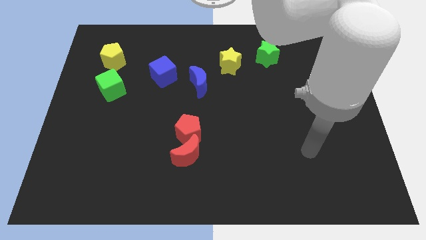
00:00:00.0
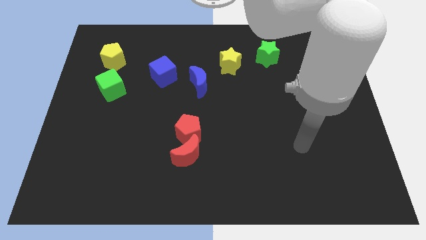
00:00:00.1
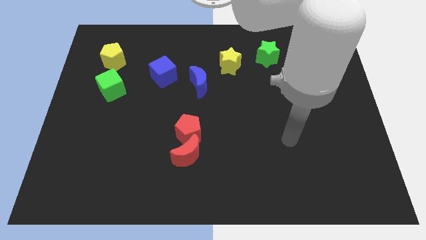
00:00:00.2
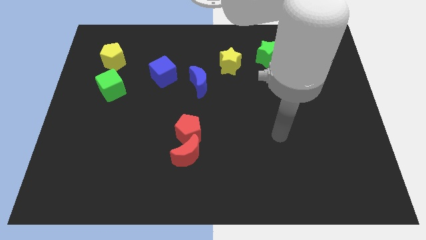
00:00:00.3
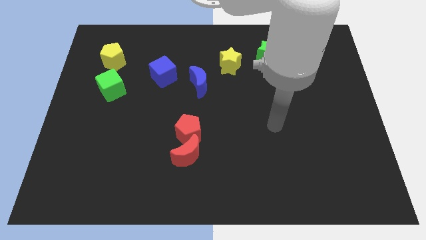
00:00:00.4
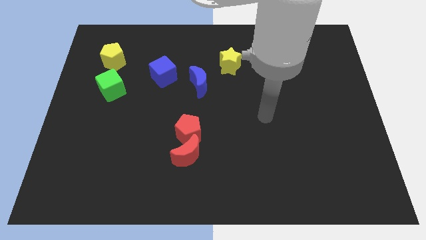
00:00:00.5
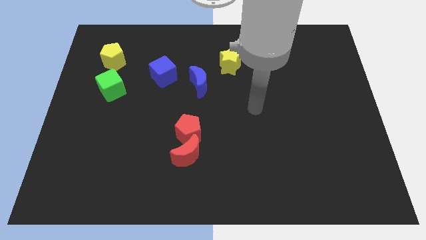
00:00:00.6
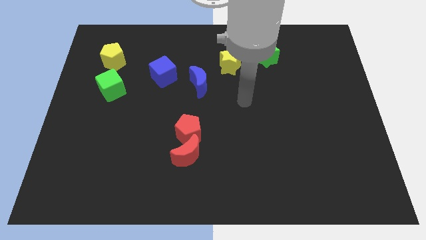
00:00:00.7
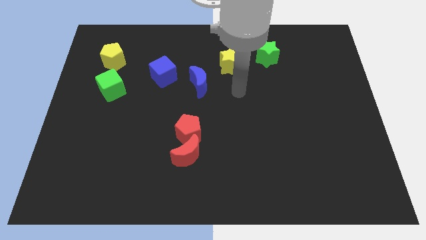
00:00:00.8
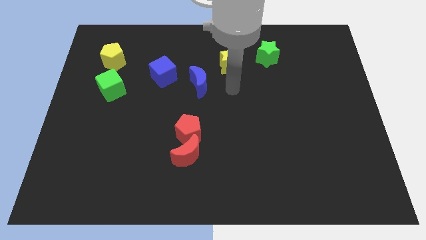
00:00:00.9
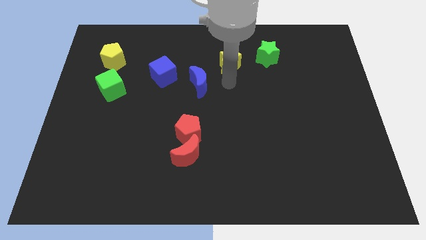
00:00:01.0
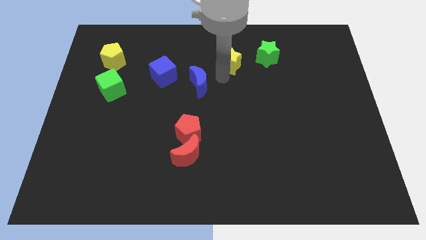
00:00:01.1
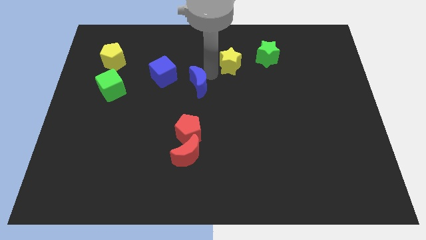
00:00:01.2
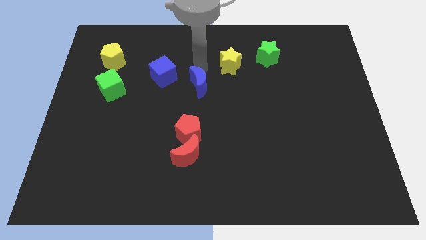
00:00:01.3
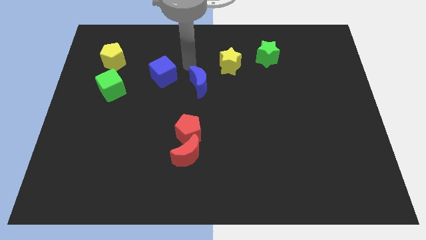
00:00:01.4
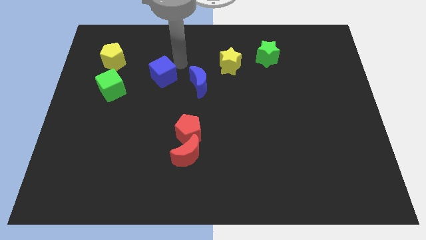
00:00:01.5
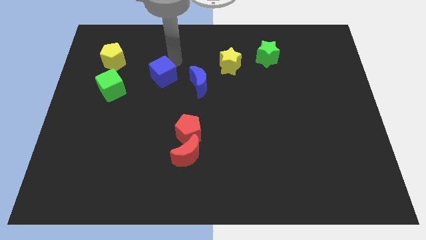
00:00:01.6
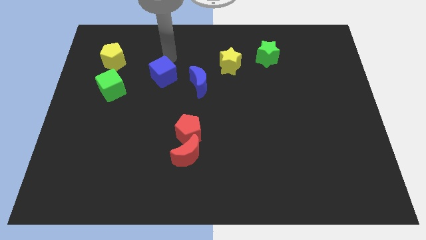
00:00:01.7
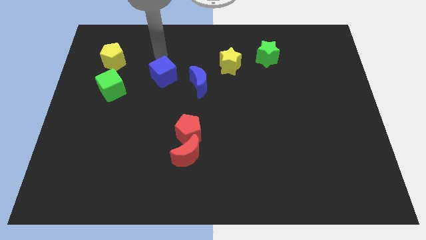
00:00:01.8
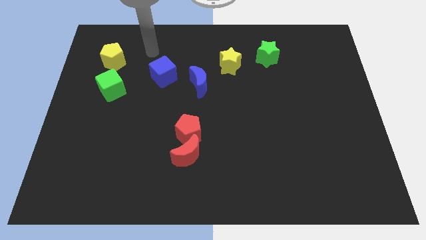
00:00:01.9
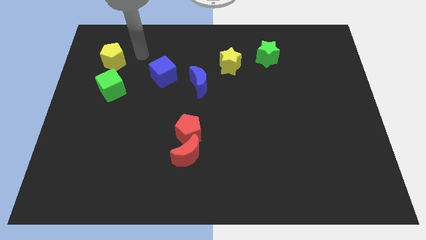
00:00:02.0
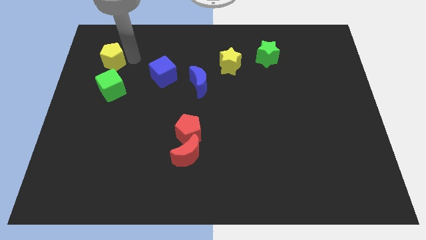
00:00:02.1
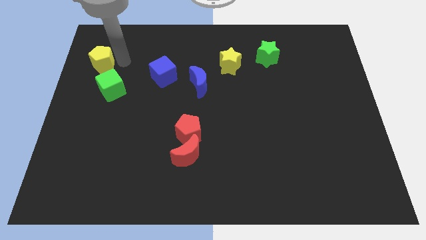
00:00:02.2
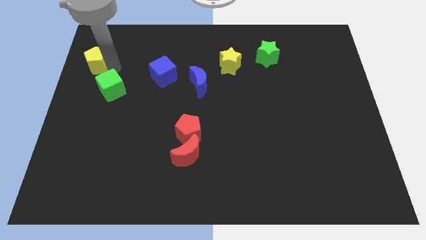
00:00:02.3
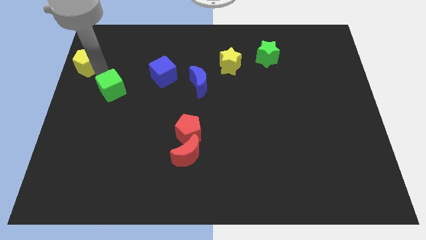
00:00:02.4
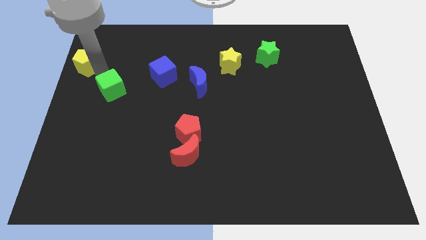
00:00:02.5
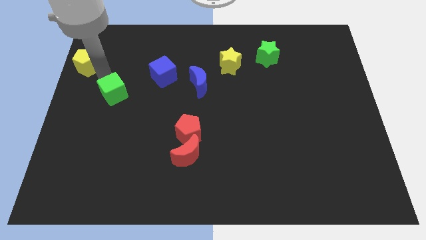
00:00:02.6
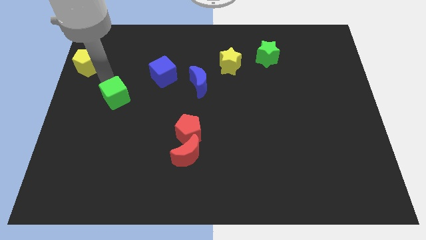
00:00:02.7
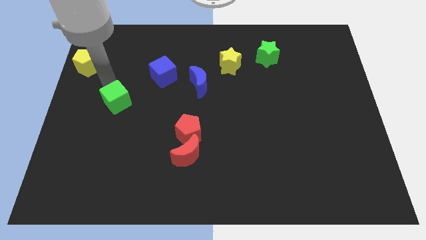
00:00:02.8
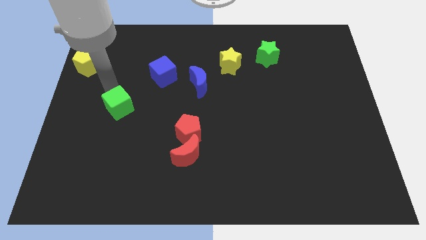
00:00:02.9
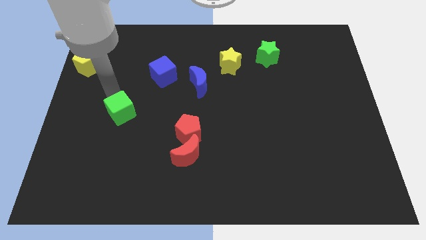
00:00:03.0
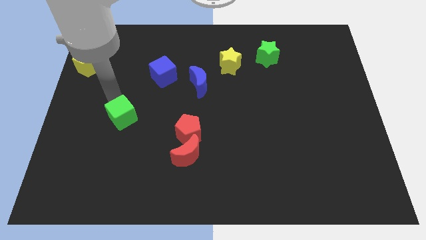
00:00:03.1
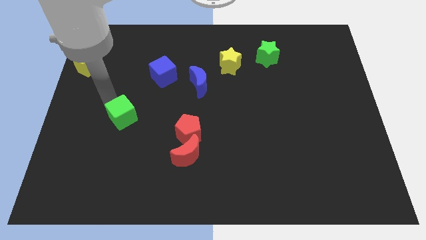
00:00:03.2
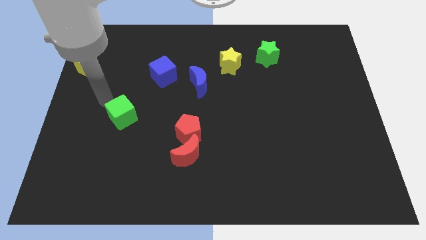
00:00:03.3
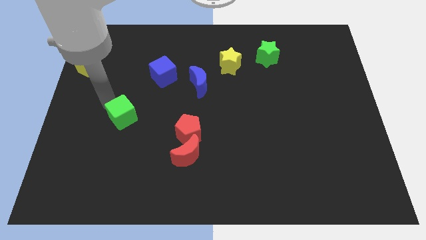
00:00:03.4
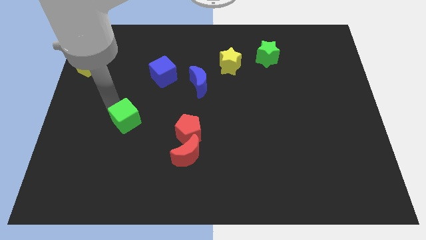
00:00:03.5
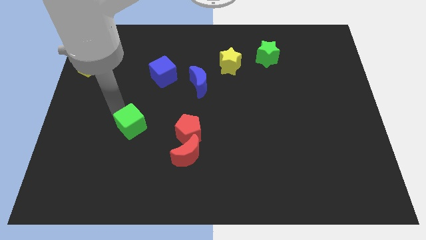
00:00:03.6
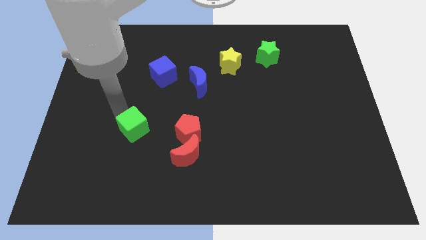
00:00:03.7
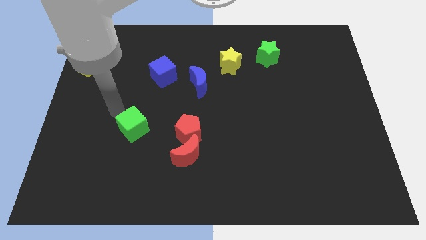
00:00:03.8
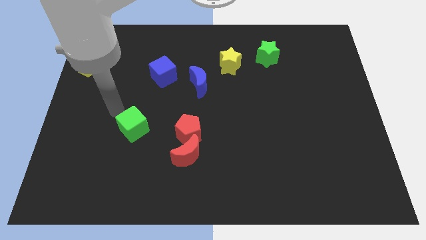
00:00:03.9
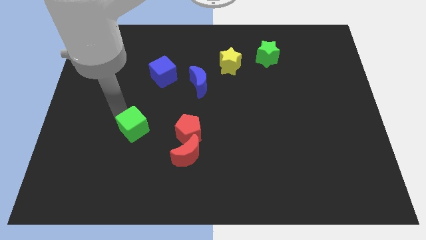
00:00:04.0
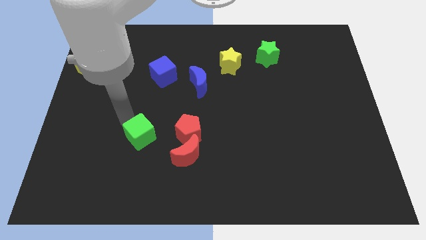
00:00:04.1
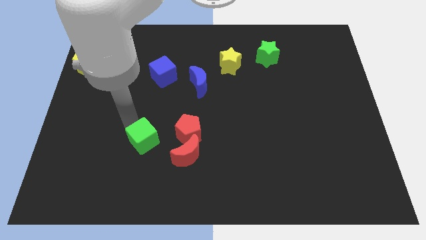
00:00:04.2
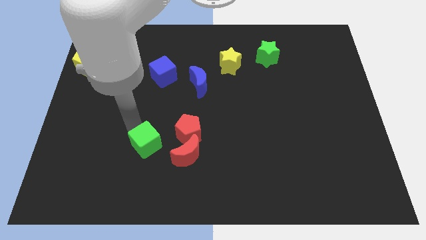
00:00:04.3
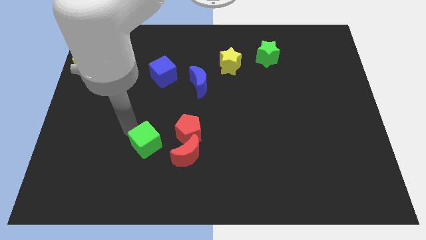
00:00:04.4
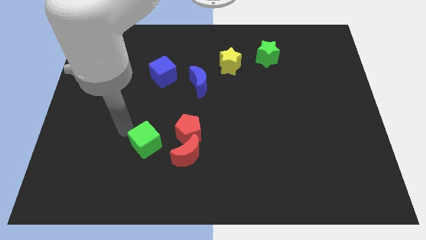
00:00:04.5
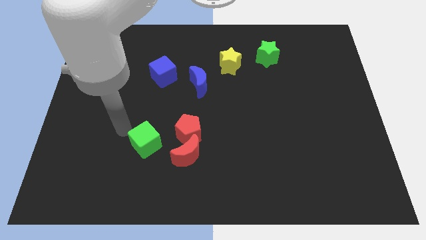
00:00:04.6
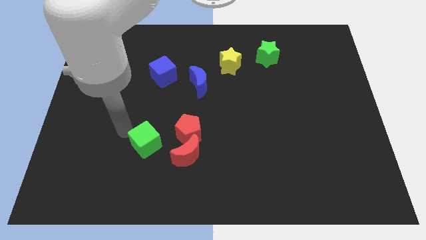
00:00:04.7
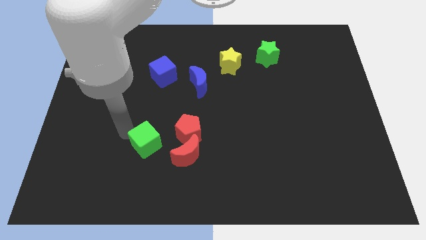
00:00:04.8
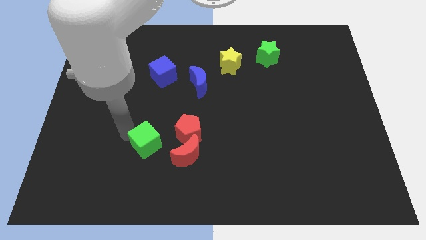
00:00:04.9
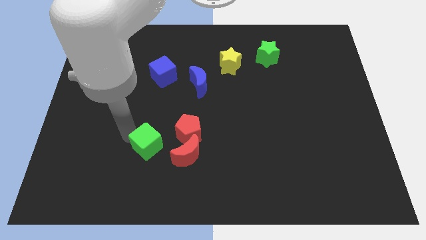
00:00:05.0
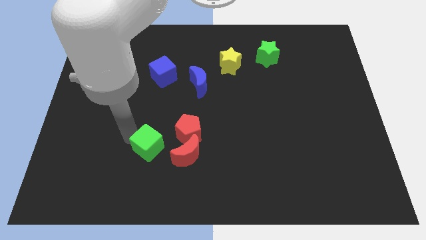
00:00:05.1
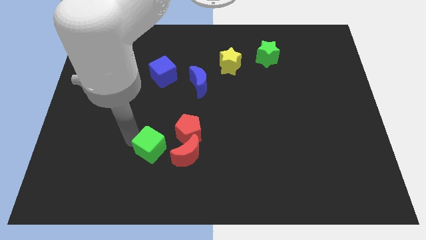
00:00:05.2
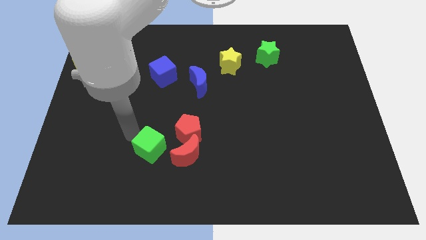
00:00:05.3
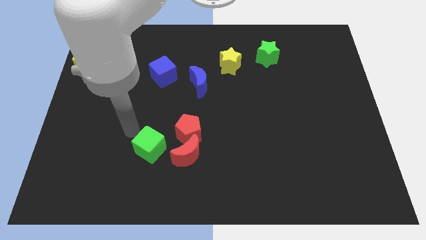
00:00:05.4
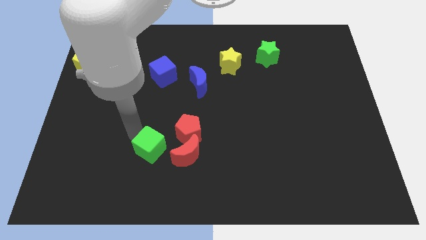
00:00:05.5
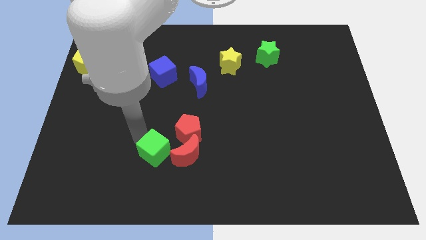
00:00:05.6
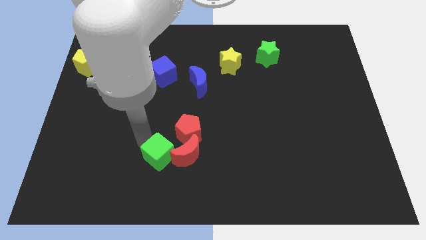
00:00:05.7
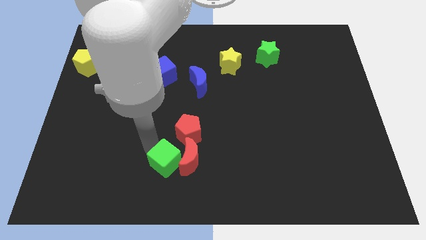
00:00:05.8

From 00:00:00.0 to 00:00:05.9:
put the green cube below the red pentagon
